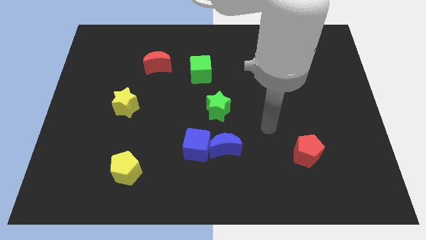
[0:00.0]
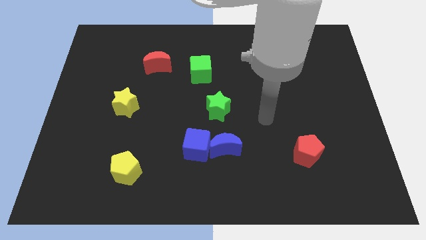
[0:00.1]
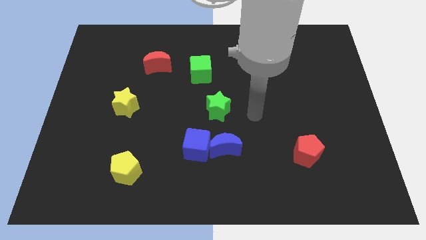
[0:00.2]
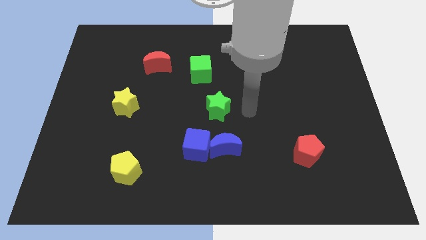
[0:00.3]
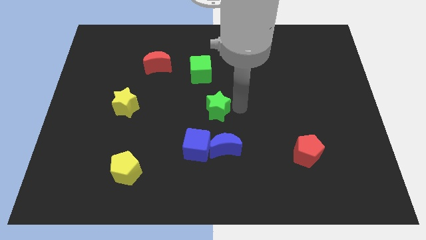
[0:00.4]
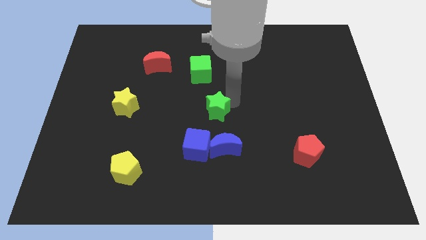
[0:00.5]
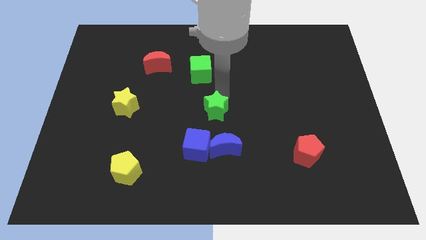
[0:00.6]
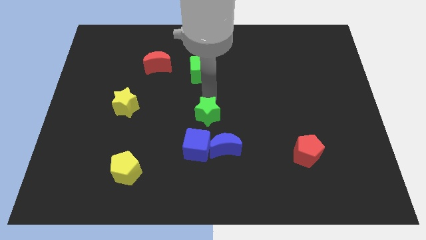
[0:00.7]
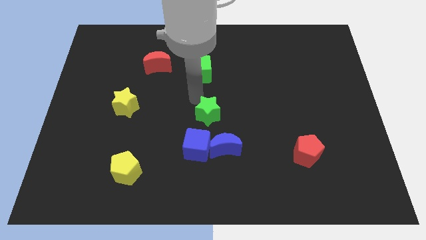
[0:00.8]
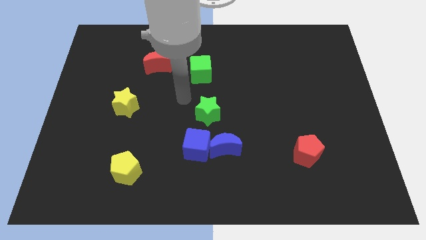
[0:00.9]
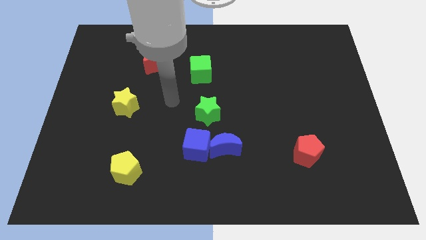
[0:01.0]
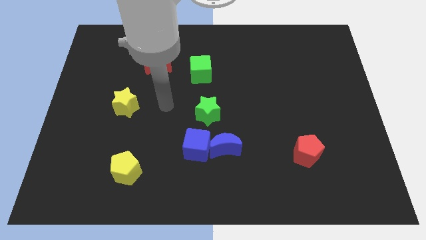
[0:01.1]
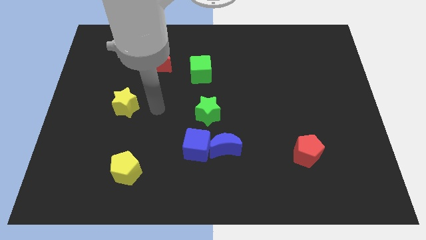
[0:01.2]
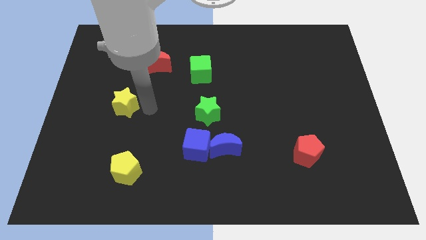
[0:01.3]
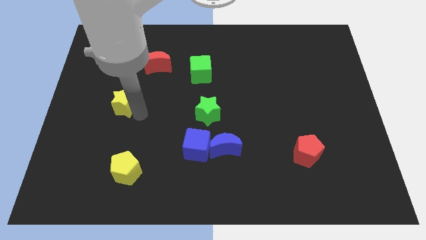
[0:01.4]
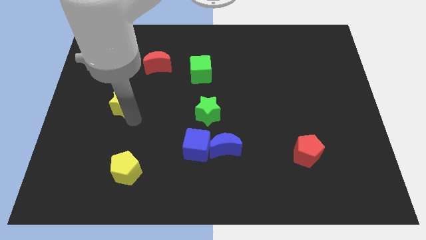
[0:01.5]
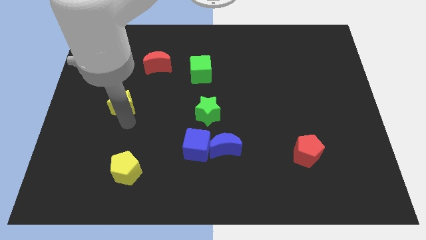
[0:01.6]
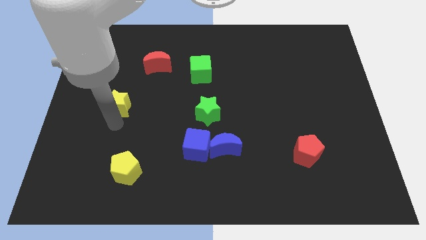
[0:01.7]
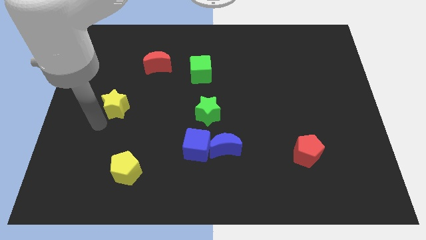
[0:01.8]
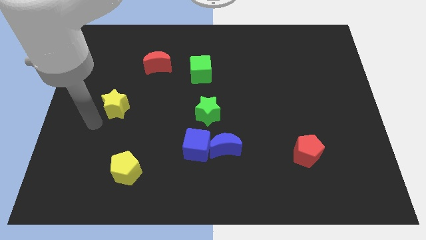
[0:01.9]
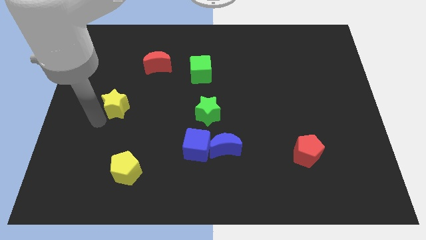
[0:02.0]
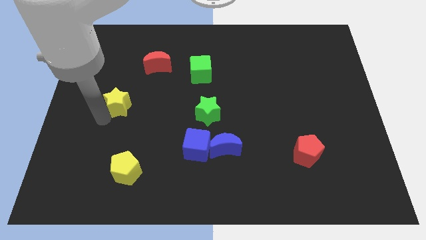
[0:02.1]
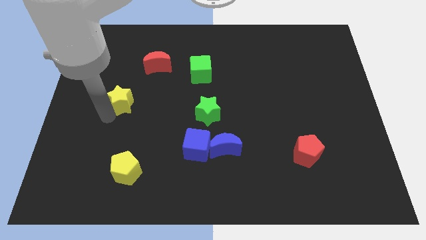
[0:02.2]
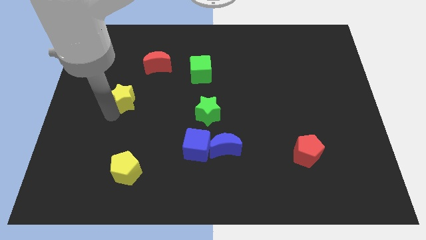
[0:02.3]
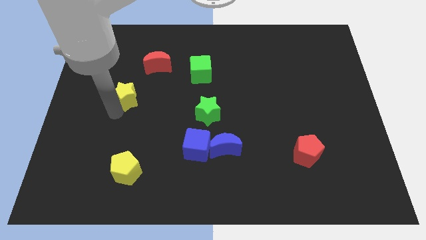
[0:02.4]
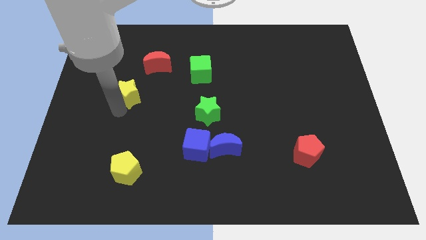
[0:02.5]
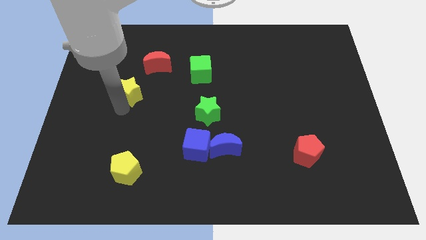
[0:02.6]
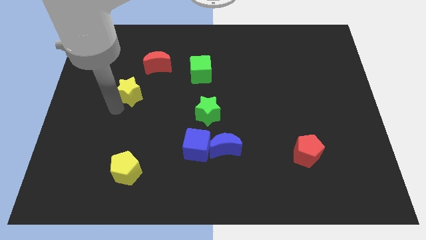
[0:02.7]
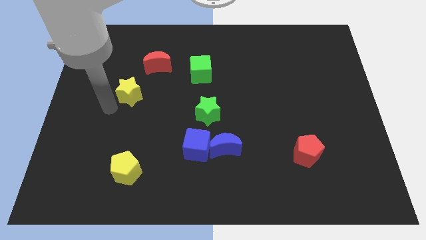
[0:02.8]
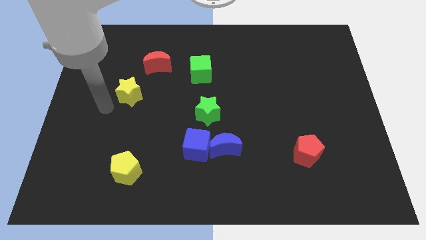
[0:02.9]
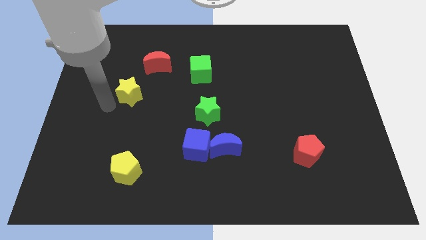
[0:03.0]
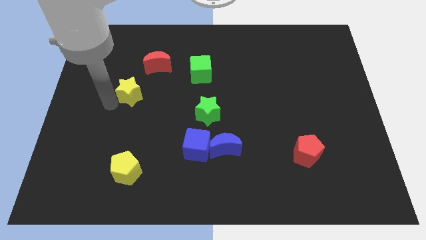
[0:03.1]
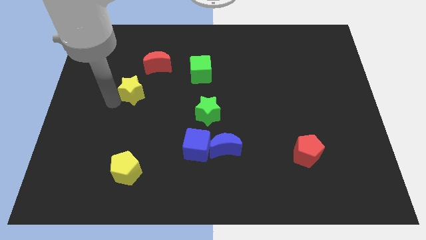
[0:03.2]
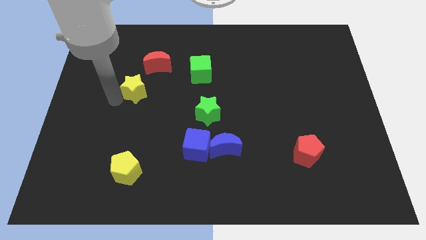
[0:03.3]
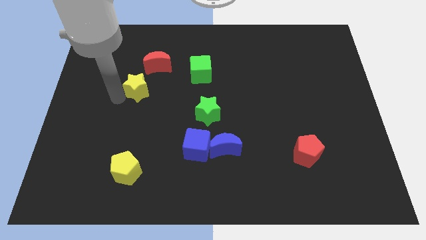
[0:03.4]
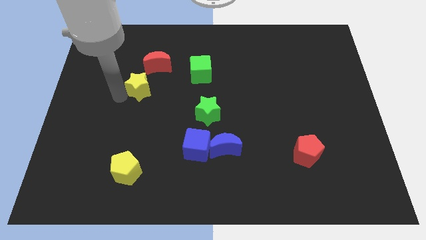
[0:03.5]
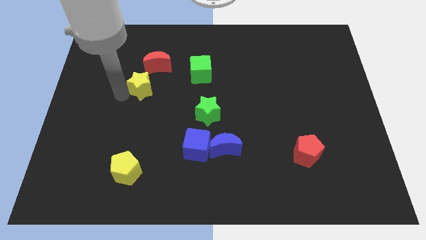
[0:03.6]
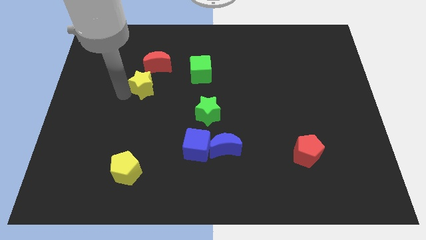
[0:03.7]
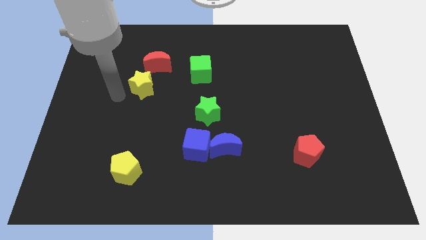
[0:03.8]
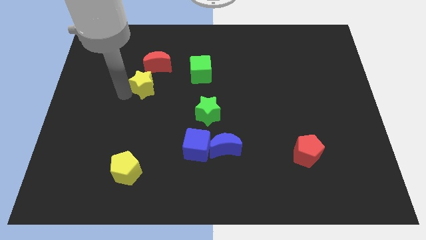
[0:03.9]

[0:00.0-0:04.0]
move the yellow star a little bit upwards and right diagonally

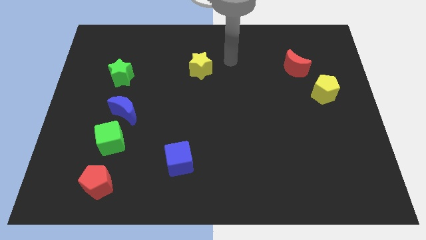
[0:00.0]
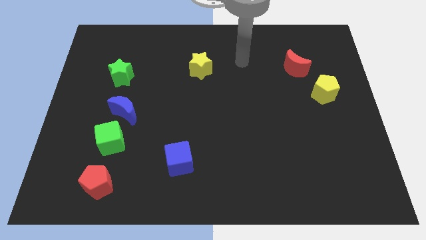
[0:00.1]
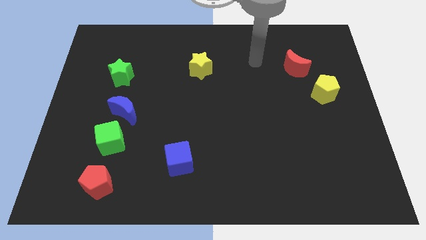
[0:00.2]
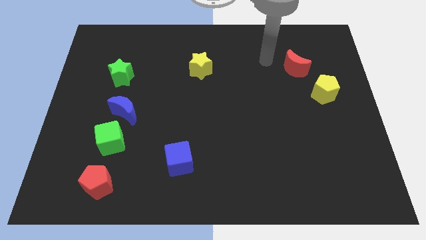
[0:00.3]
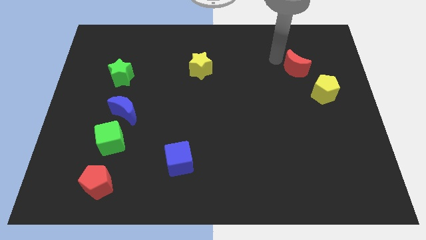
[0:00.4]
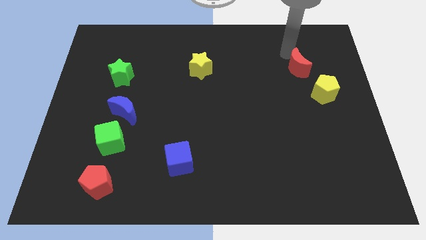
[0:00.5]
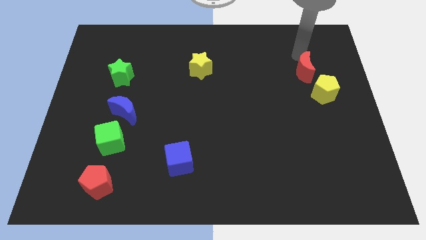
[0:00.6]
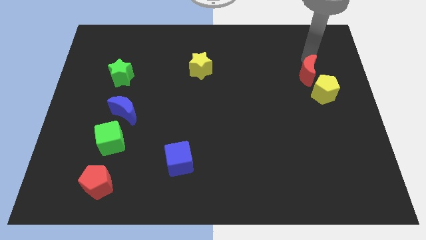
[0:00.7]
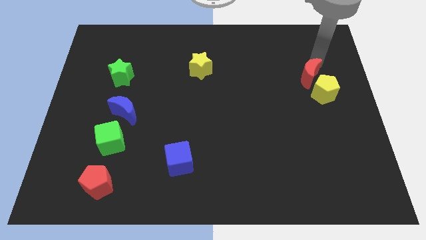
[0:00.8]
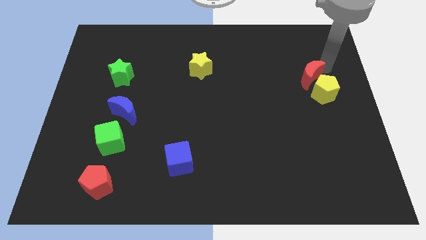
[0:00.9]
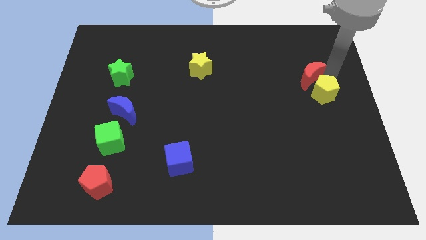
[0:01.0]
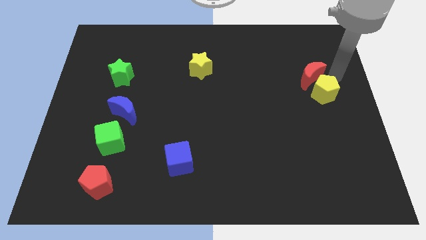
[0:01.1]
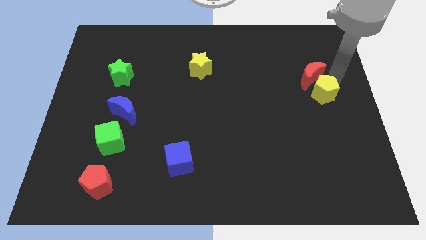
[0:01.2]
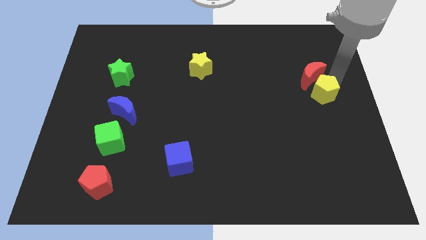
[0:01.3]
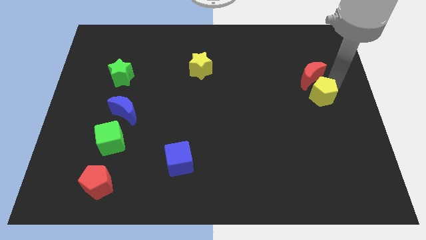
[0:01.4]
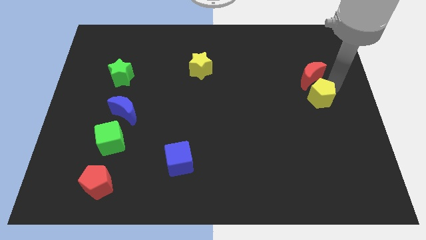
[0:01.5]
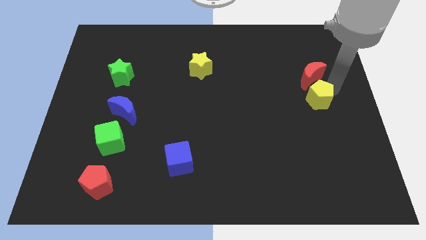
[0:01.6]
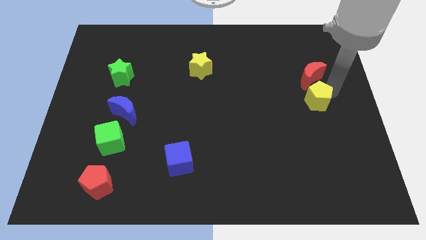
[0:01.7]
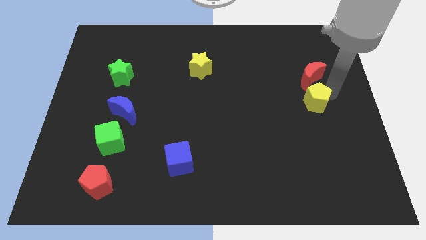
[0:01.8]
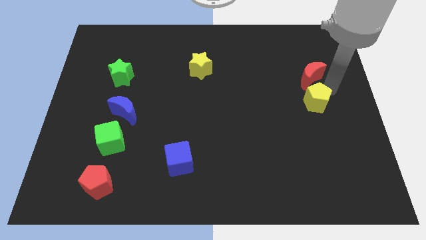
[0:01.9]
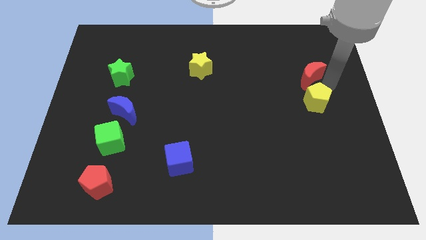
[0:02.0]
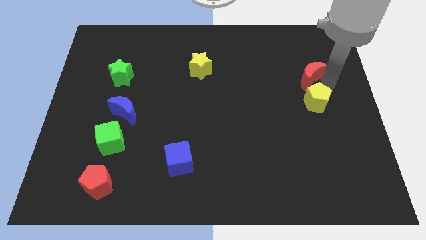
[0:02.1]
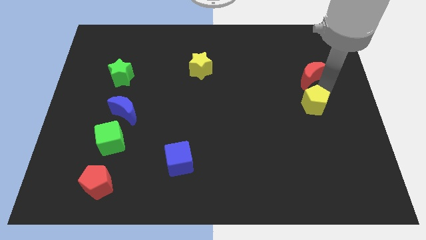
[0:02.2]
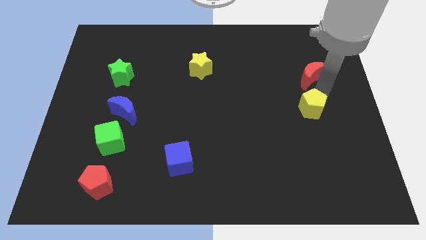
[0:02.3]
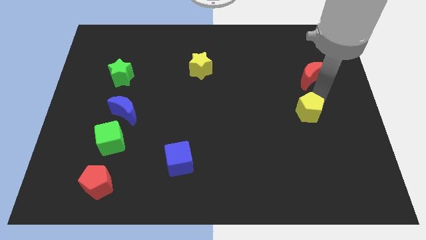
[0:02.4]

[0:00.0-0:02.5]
slightly move the yellow pentagon downwards and left

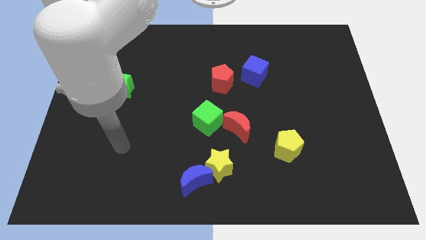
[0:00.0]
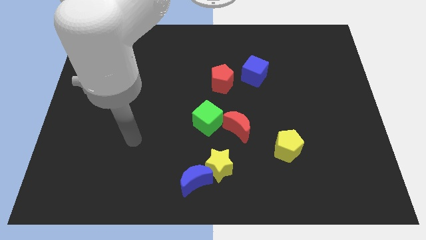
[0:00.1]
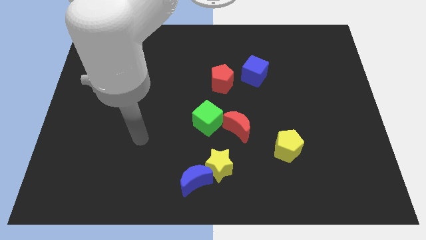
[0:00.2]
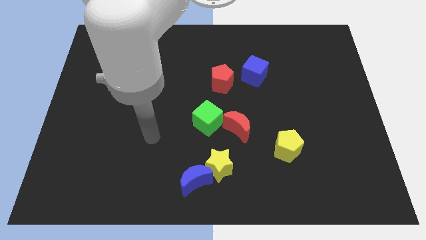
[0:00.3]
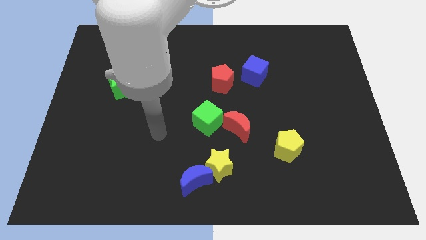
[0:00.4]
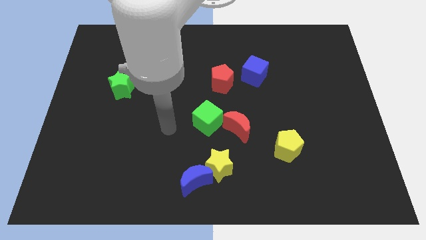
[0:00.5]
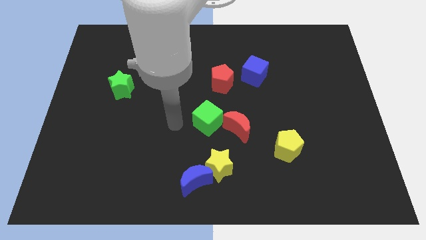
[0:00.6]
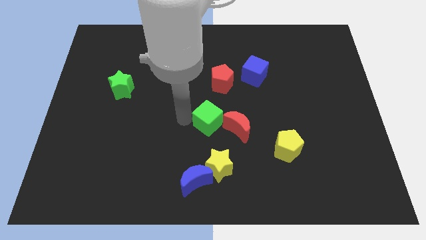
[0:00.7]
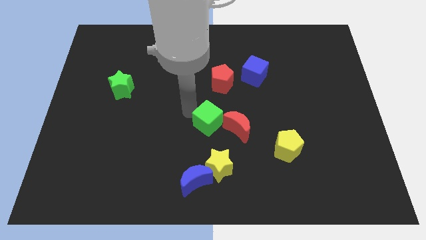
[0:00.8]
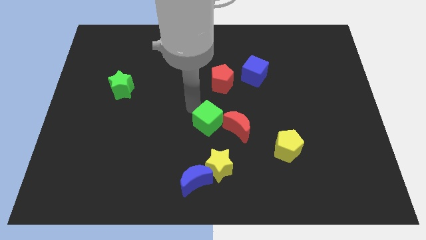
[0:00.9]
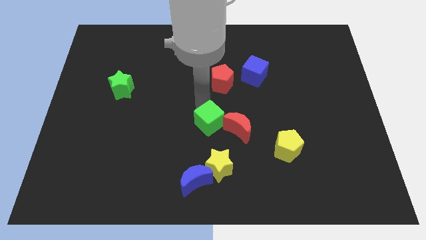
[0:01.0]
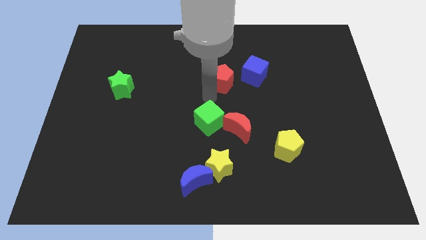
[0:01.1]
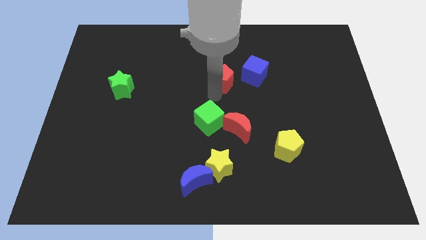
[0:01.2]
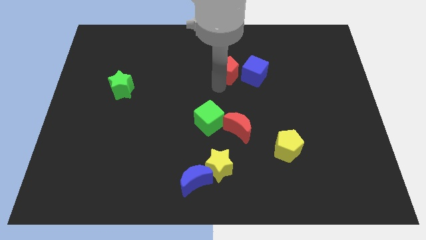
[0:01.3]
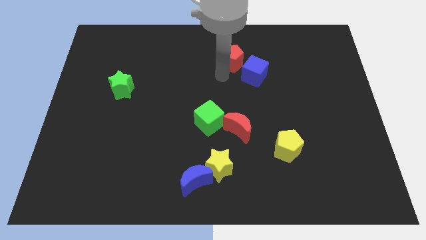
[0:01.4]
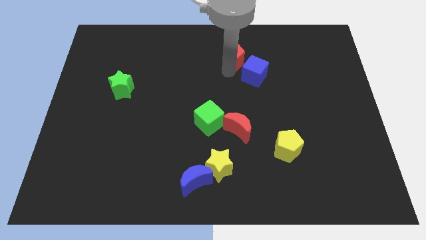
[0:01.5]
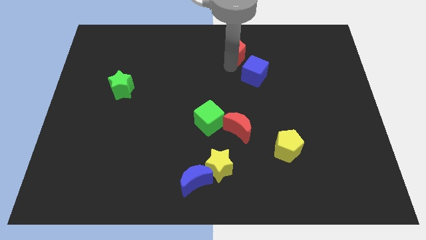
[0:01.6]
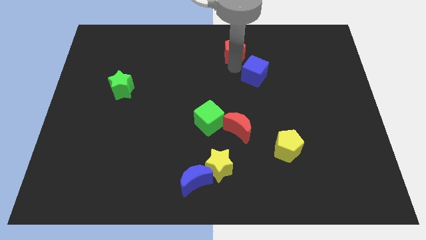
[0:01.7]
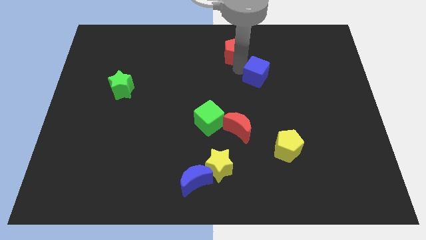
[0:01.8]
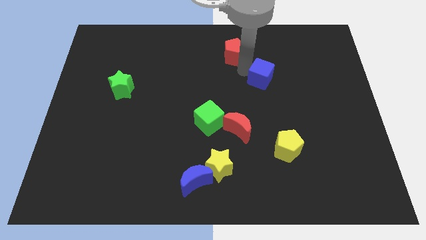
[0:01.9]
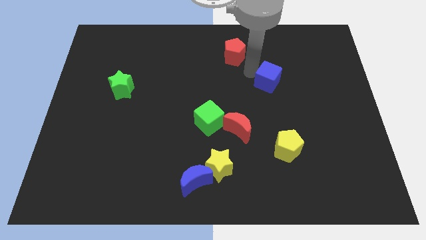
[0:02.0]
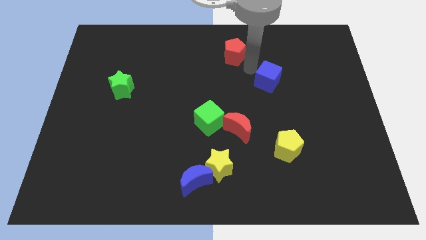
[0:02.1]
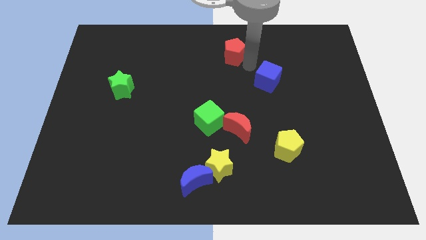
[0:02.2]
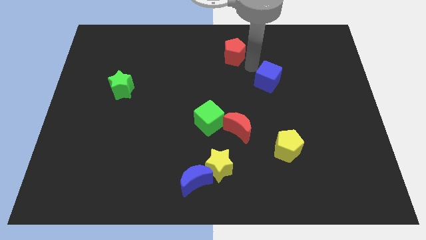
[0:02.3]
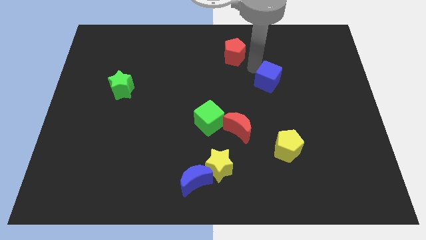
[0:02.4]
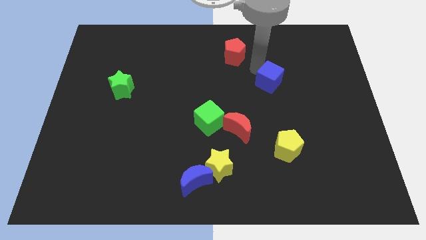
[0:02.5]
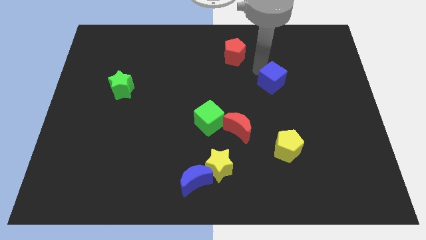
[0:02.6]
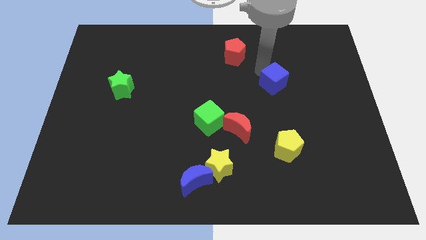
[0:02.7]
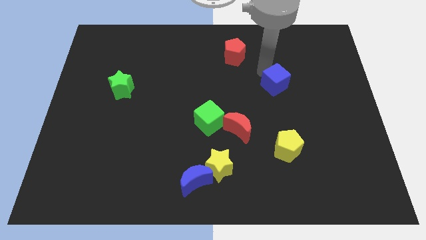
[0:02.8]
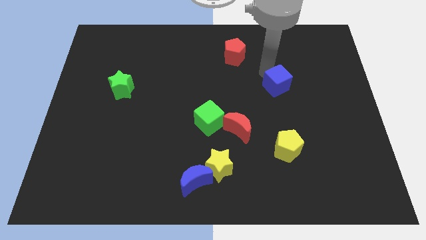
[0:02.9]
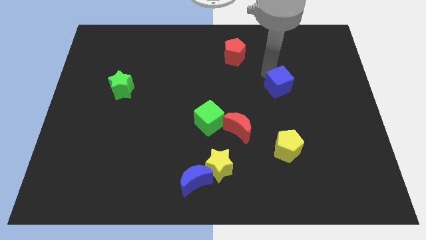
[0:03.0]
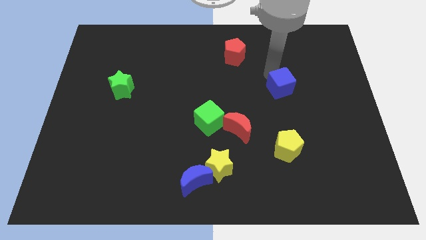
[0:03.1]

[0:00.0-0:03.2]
slide the blue cube diagonally down and to the right a little
